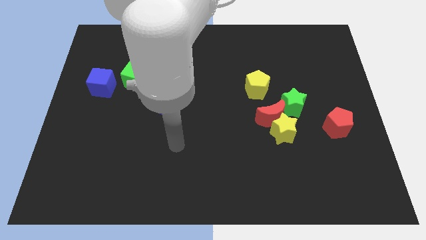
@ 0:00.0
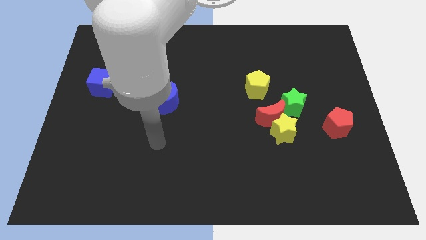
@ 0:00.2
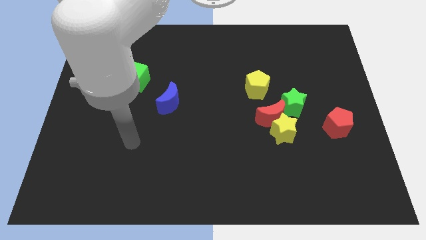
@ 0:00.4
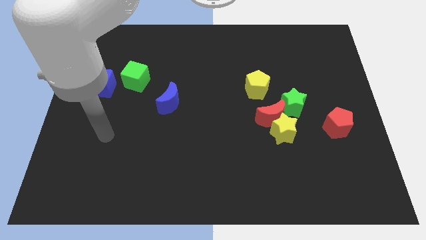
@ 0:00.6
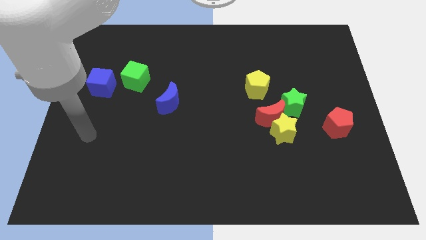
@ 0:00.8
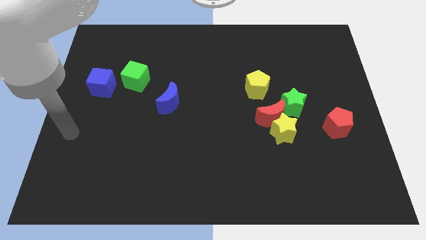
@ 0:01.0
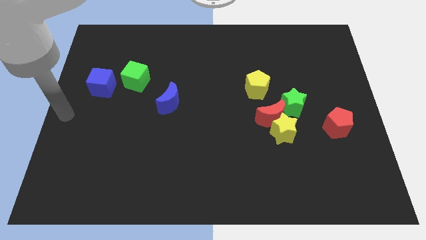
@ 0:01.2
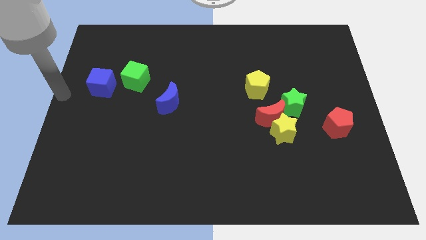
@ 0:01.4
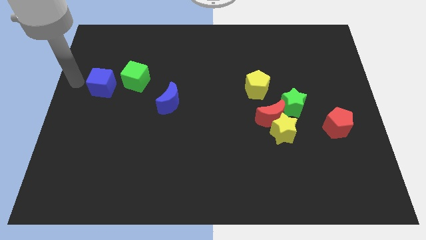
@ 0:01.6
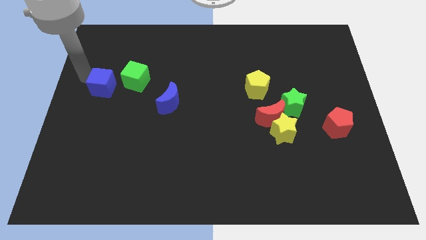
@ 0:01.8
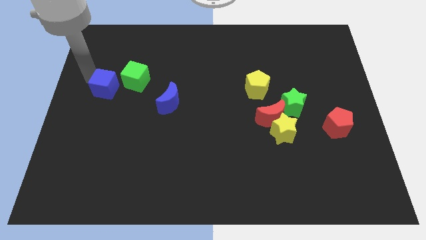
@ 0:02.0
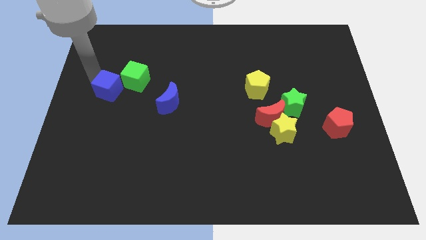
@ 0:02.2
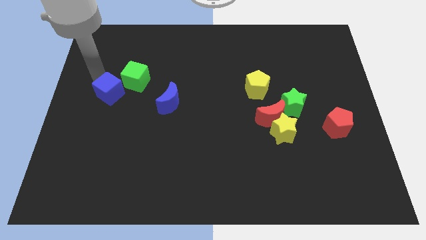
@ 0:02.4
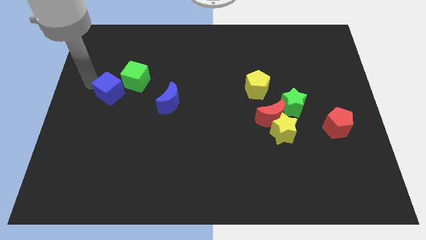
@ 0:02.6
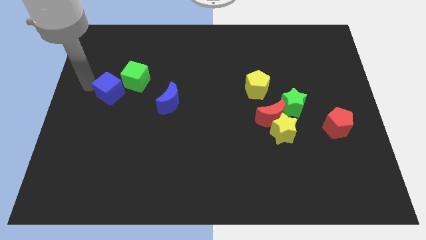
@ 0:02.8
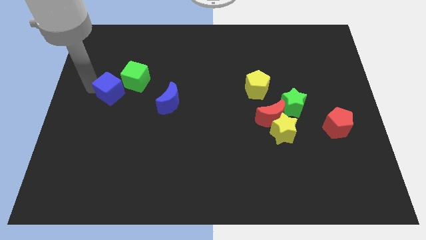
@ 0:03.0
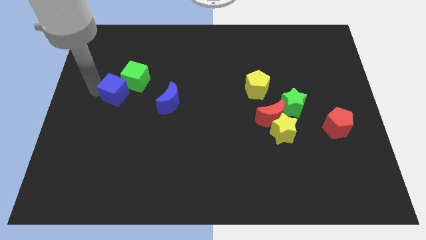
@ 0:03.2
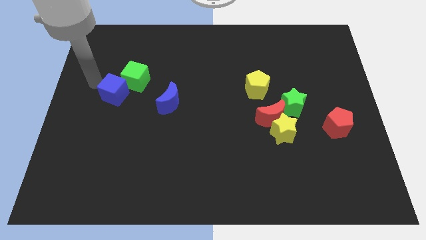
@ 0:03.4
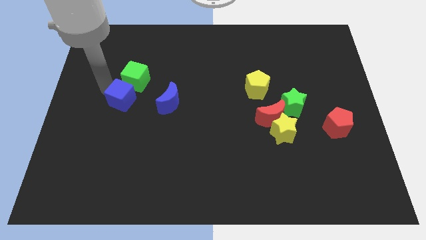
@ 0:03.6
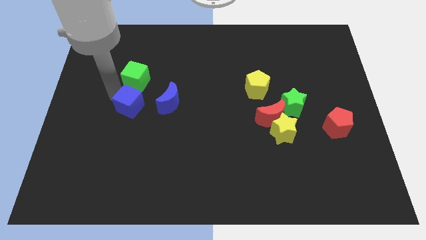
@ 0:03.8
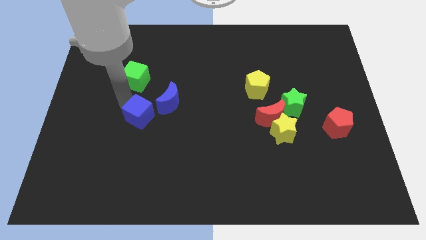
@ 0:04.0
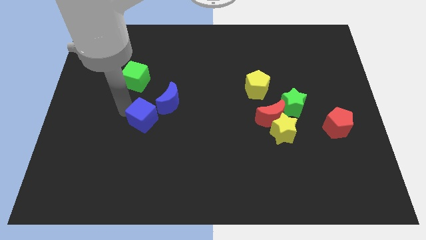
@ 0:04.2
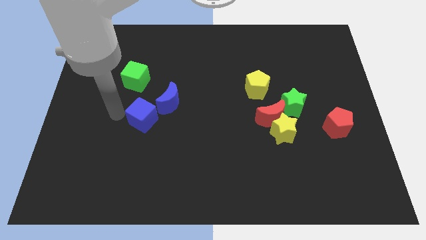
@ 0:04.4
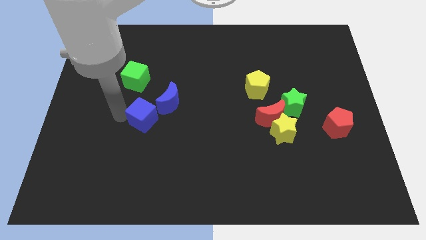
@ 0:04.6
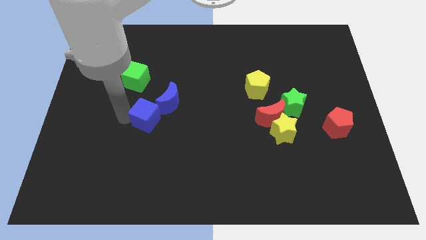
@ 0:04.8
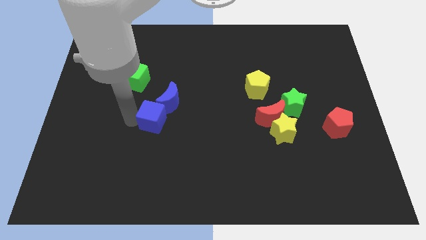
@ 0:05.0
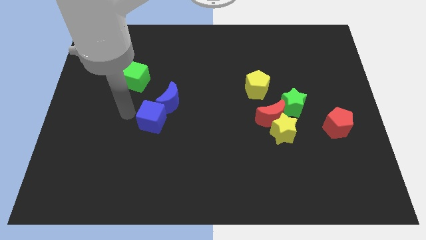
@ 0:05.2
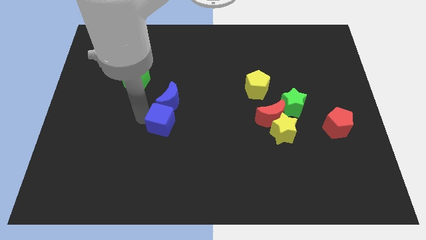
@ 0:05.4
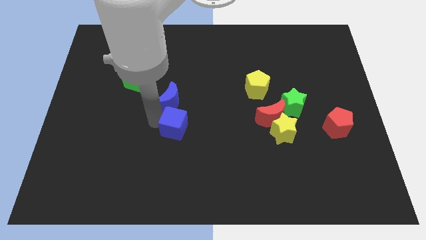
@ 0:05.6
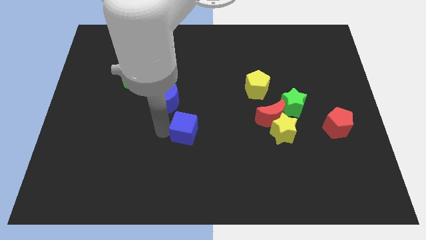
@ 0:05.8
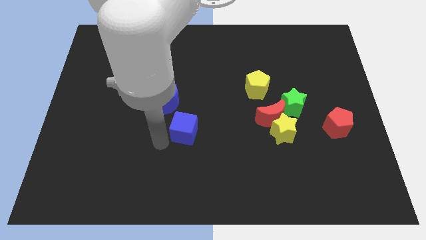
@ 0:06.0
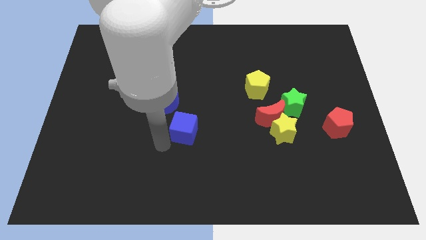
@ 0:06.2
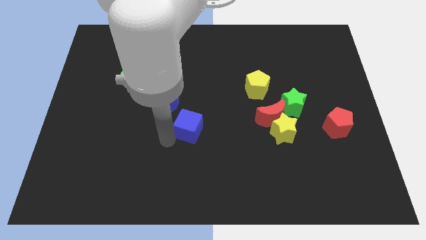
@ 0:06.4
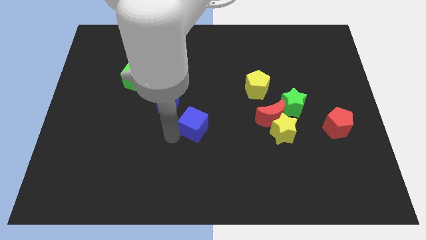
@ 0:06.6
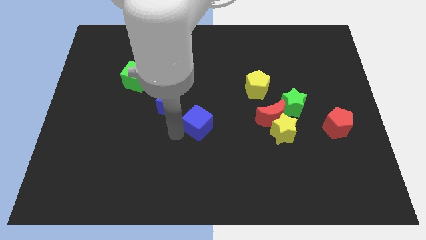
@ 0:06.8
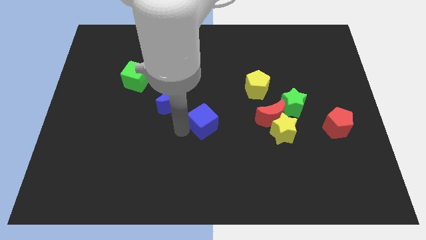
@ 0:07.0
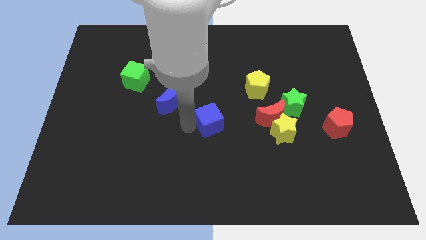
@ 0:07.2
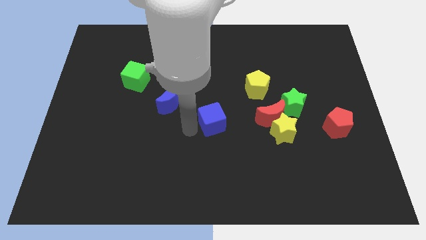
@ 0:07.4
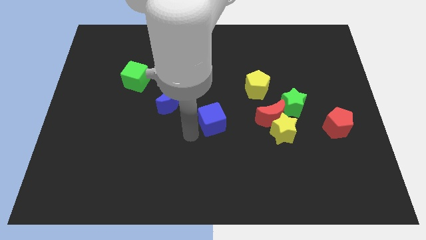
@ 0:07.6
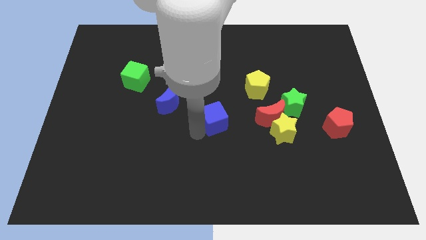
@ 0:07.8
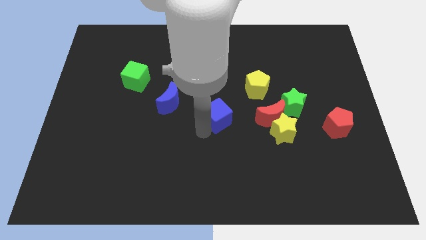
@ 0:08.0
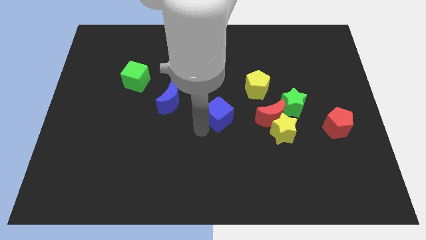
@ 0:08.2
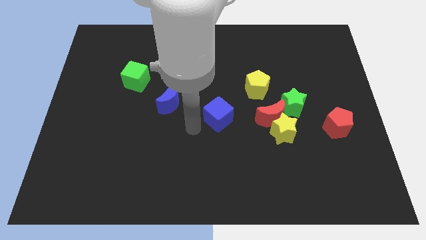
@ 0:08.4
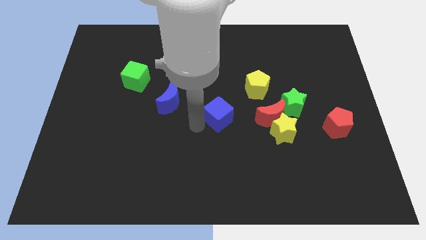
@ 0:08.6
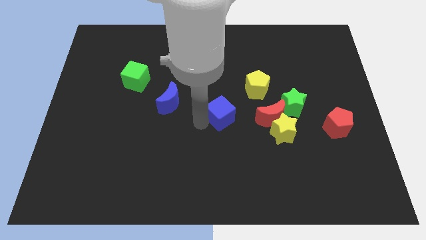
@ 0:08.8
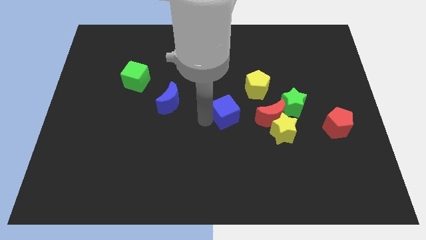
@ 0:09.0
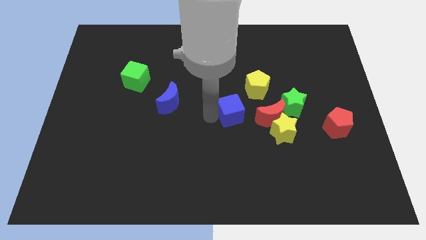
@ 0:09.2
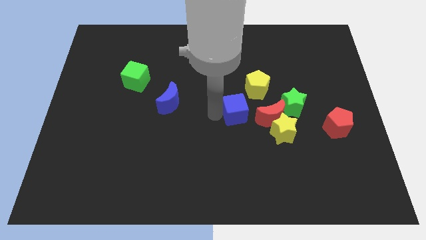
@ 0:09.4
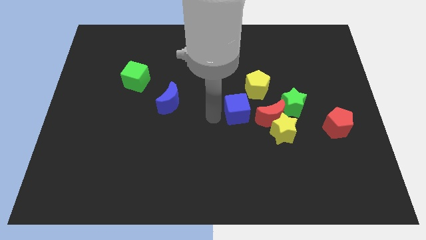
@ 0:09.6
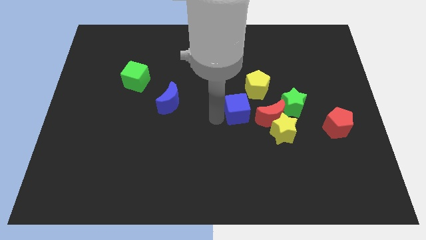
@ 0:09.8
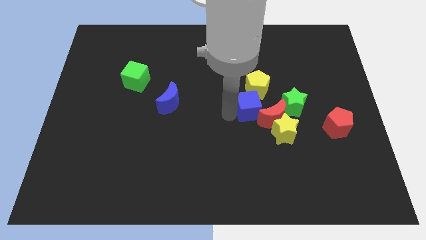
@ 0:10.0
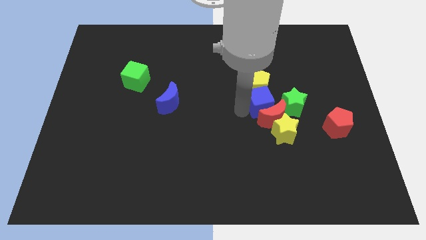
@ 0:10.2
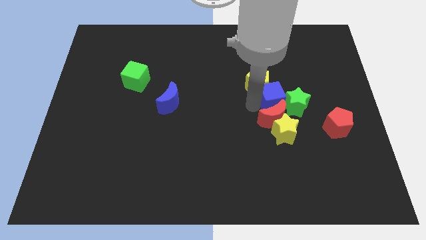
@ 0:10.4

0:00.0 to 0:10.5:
push the blue cube towards the green star

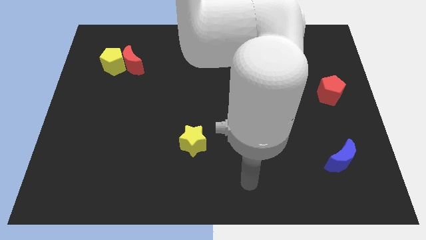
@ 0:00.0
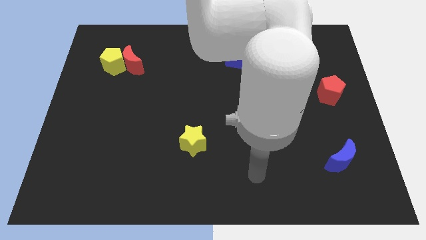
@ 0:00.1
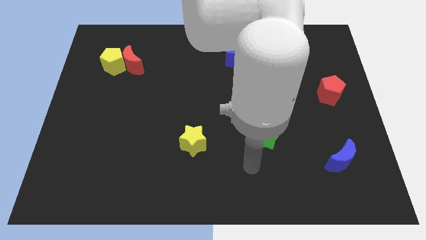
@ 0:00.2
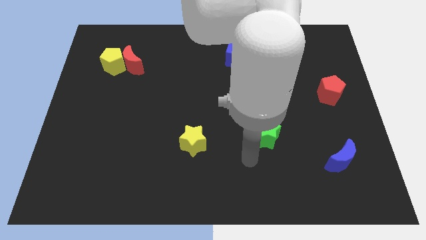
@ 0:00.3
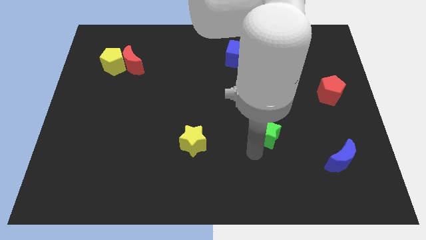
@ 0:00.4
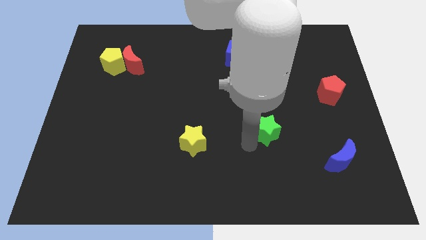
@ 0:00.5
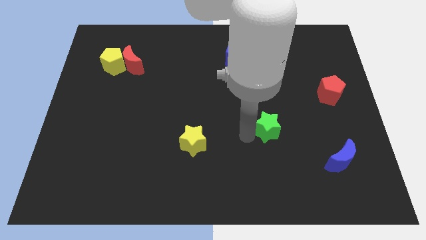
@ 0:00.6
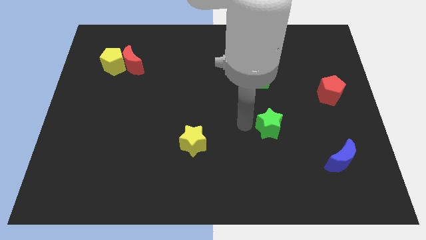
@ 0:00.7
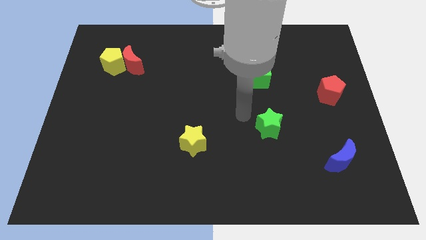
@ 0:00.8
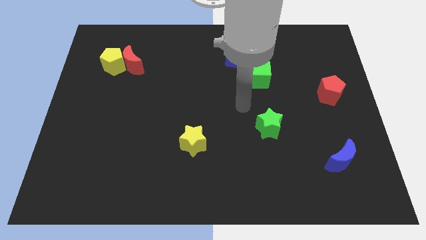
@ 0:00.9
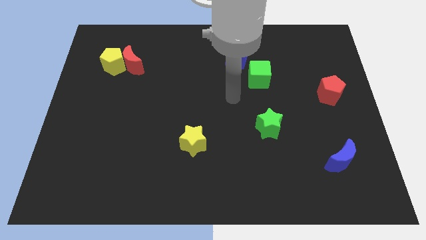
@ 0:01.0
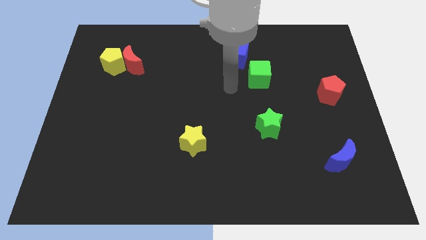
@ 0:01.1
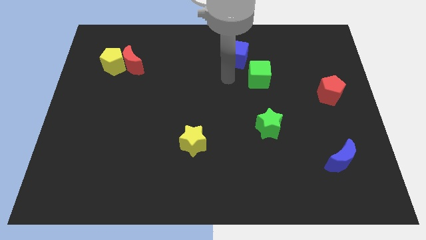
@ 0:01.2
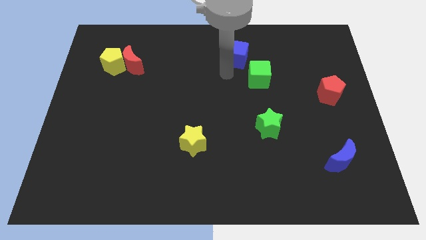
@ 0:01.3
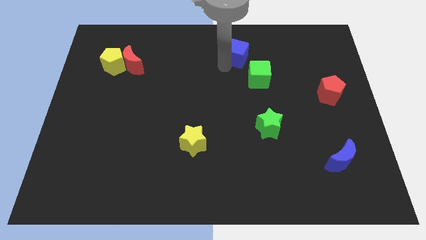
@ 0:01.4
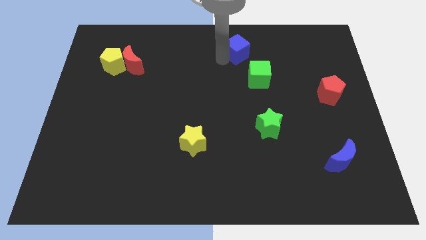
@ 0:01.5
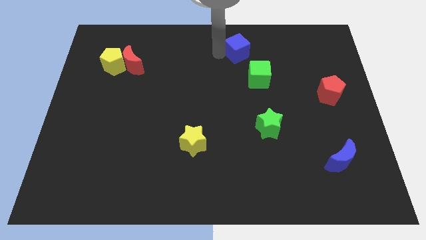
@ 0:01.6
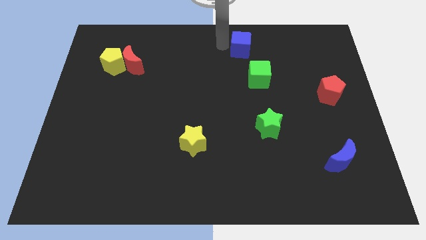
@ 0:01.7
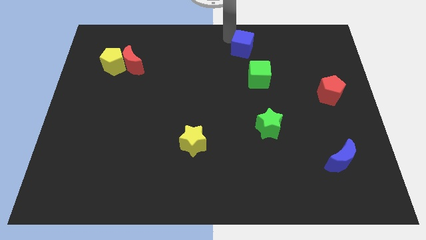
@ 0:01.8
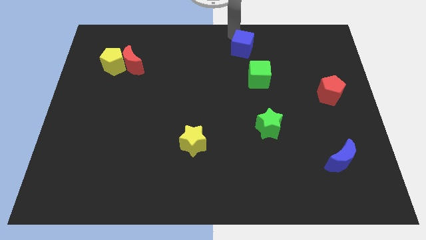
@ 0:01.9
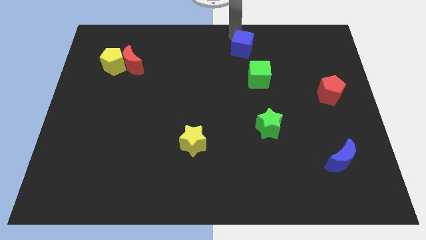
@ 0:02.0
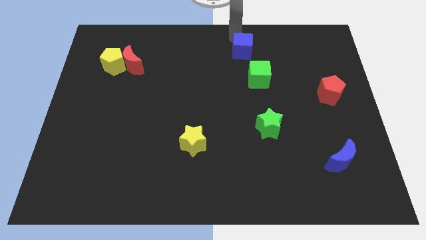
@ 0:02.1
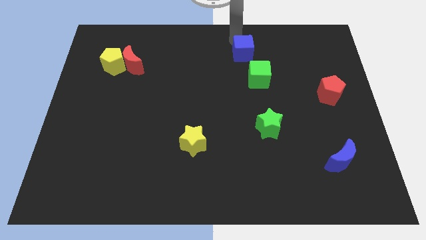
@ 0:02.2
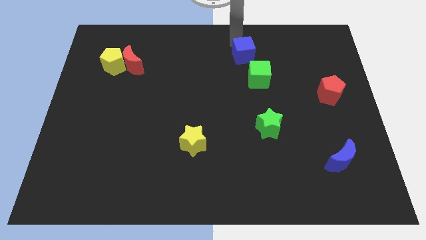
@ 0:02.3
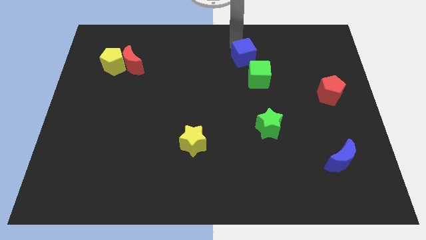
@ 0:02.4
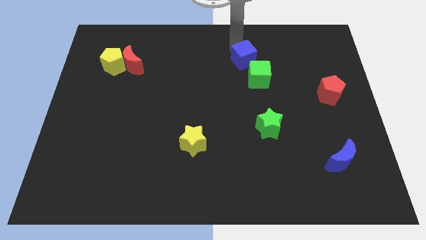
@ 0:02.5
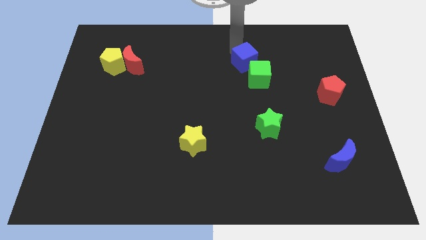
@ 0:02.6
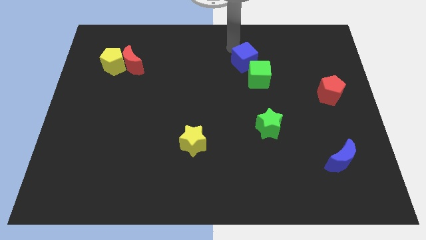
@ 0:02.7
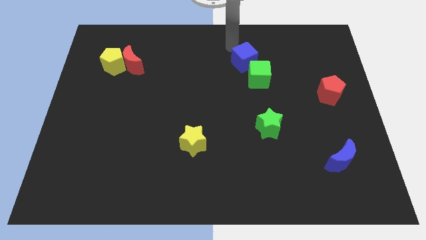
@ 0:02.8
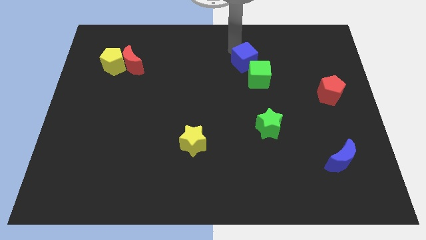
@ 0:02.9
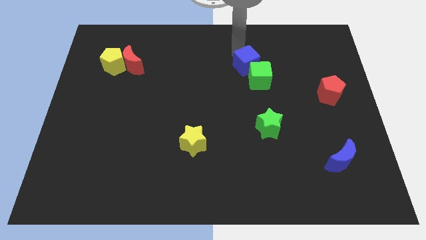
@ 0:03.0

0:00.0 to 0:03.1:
slide the blue cube next to the green cube
